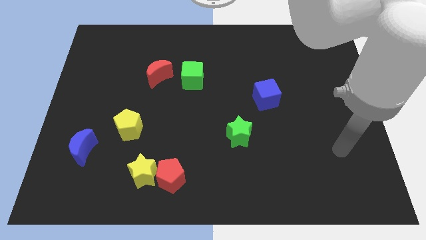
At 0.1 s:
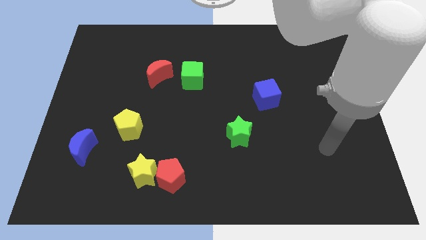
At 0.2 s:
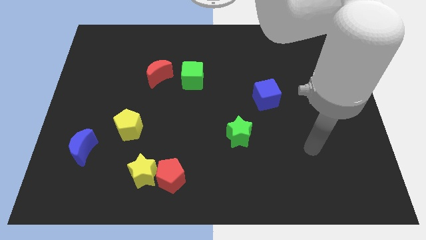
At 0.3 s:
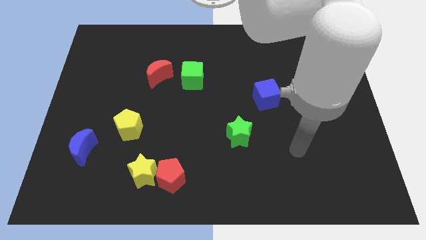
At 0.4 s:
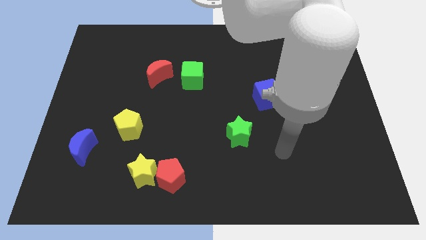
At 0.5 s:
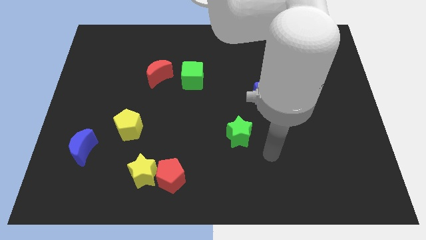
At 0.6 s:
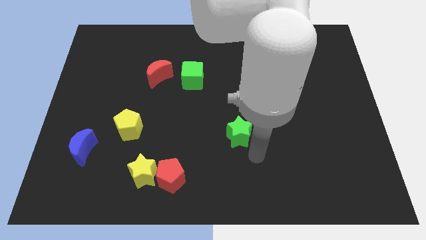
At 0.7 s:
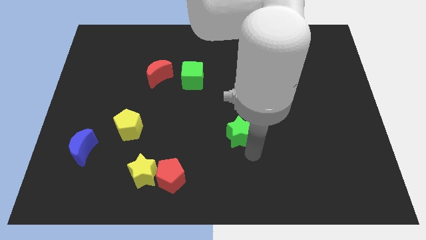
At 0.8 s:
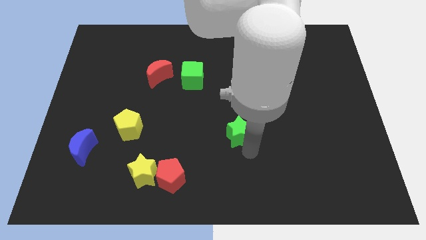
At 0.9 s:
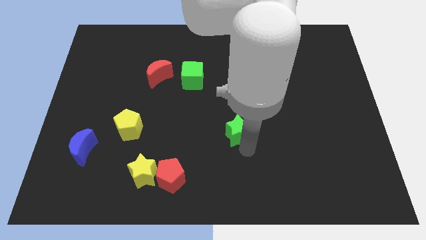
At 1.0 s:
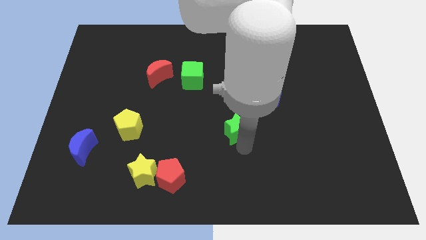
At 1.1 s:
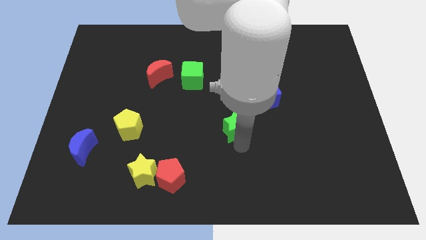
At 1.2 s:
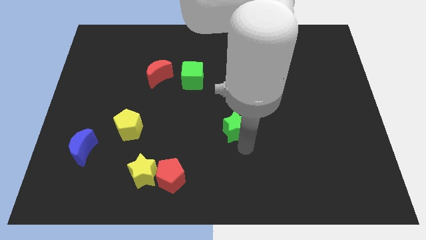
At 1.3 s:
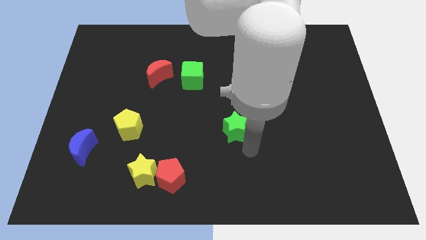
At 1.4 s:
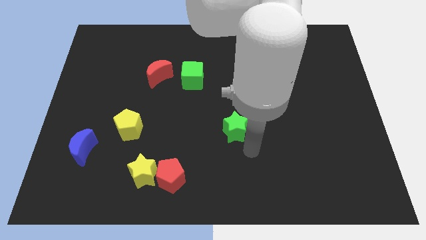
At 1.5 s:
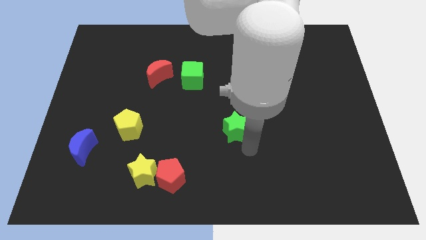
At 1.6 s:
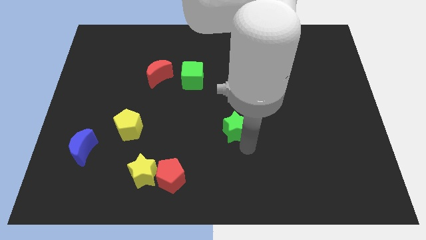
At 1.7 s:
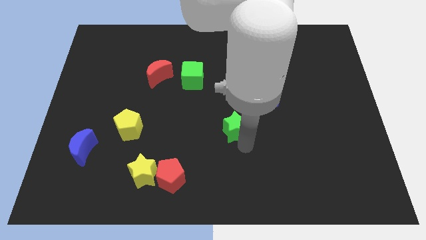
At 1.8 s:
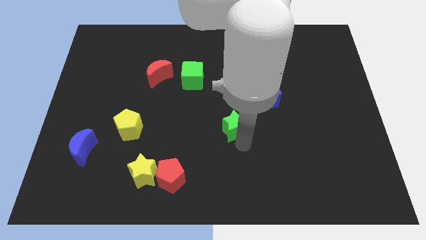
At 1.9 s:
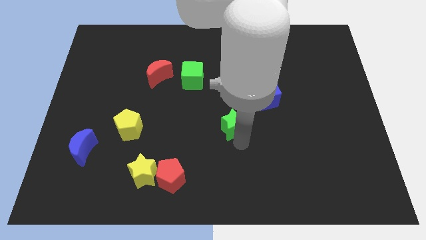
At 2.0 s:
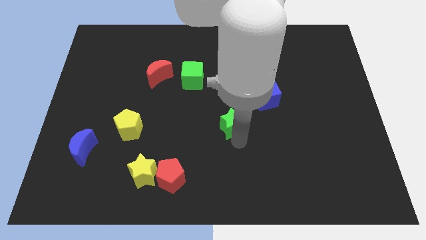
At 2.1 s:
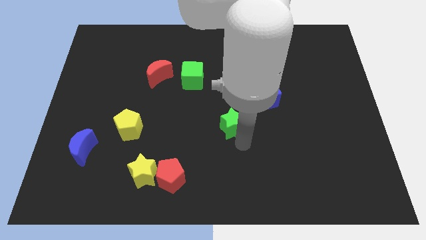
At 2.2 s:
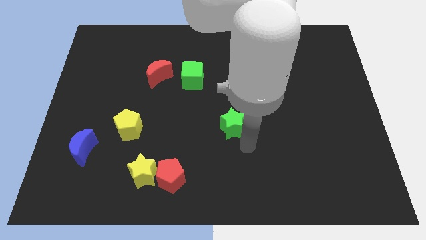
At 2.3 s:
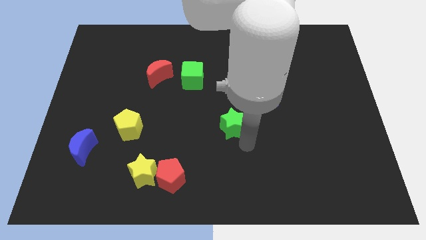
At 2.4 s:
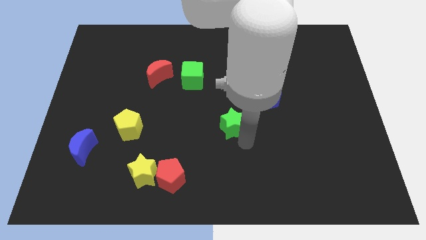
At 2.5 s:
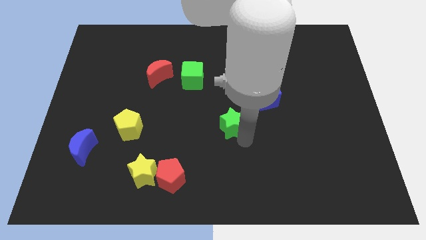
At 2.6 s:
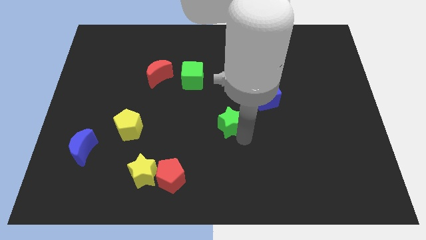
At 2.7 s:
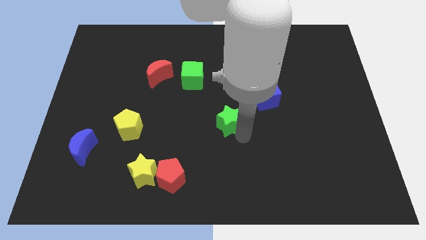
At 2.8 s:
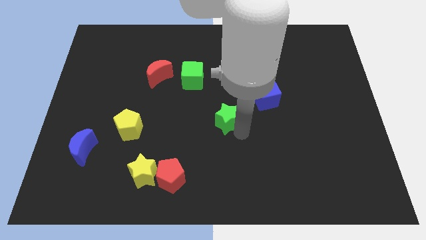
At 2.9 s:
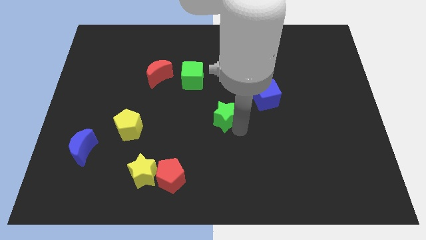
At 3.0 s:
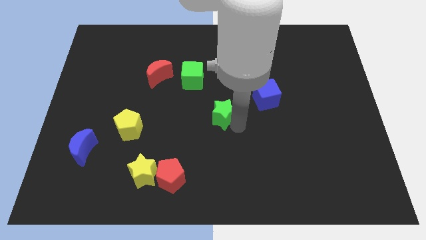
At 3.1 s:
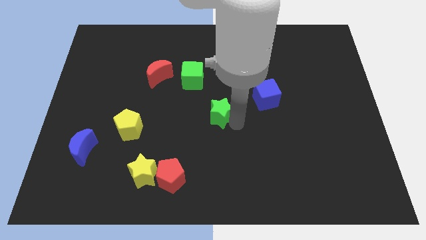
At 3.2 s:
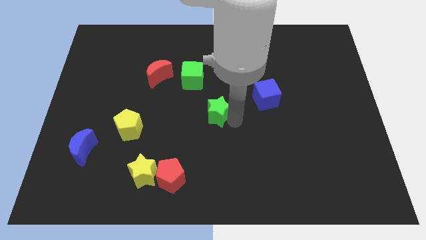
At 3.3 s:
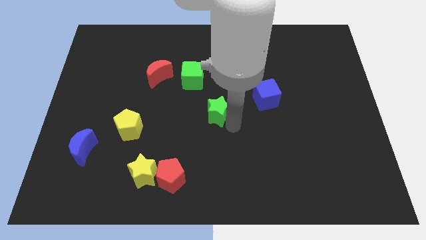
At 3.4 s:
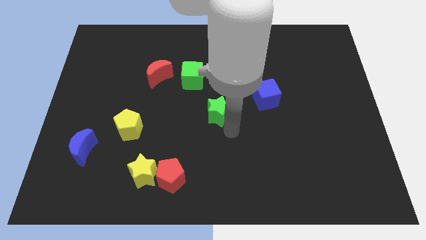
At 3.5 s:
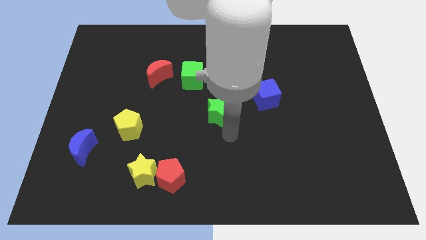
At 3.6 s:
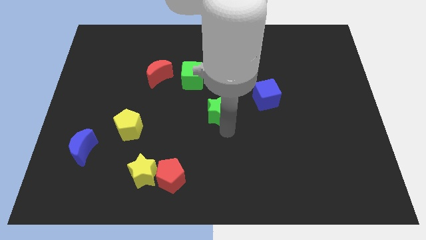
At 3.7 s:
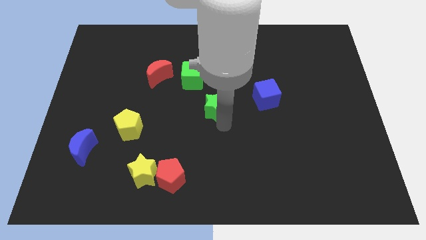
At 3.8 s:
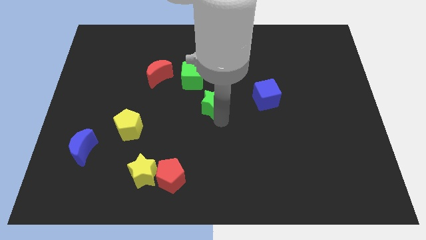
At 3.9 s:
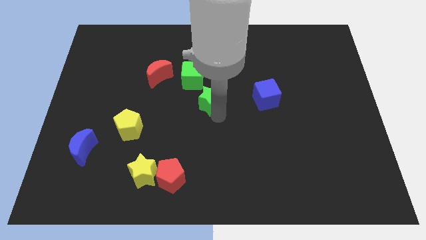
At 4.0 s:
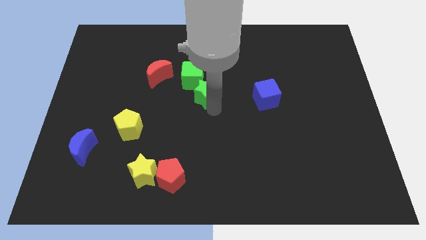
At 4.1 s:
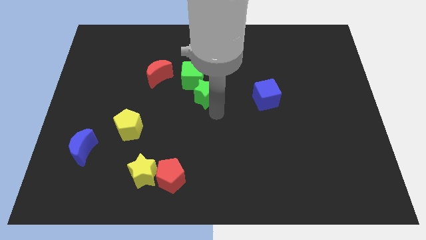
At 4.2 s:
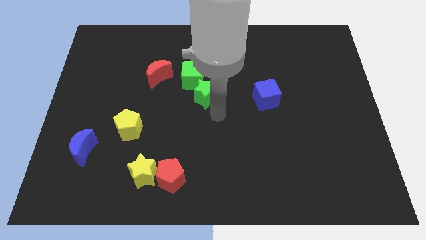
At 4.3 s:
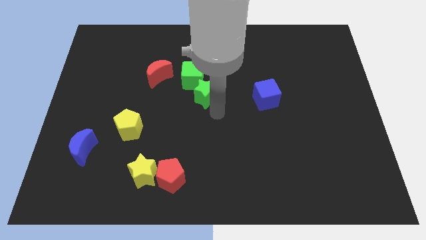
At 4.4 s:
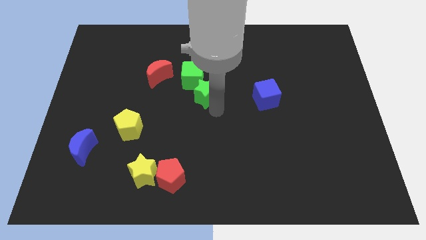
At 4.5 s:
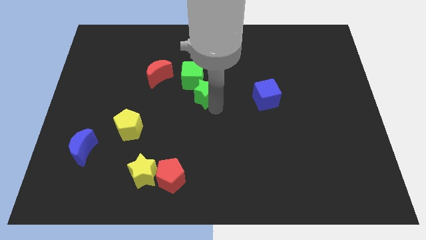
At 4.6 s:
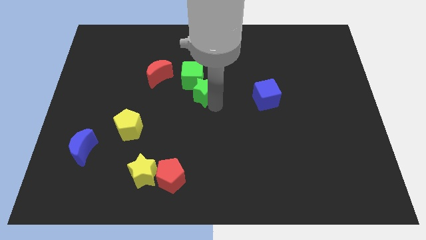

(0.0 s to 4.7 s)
slide the green star towards the green cube

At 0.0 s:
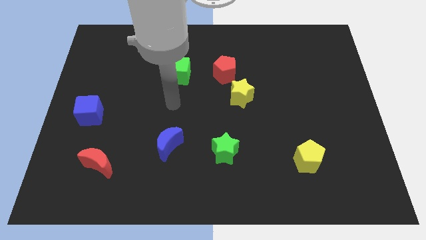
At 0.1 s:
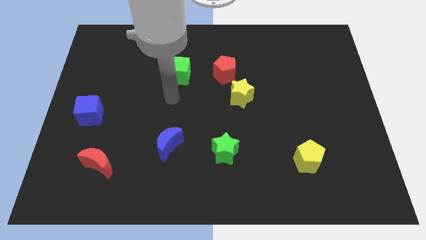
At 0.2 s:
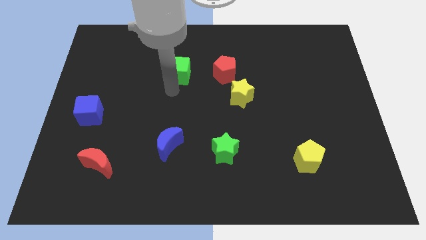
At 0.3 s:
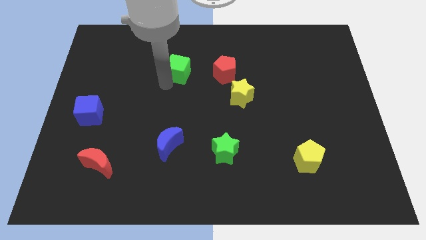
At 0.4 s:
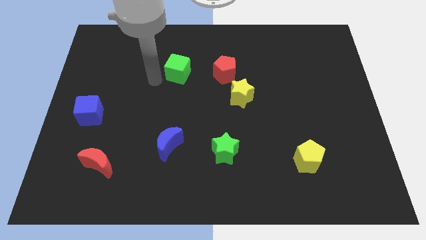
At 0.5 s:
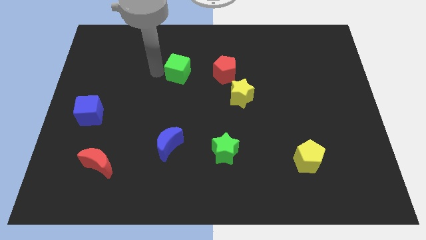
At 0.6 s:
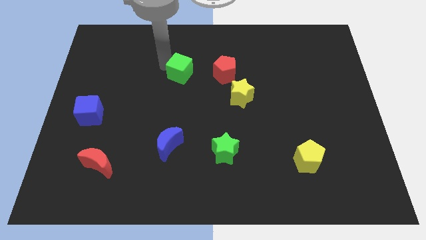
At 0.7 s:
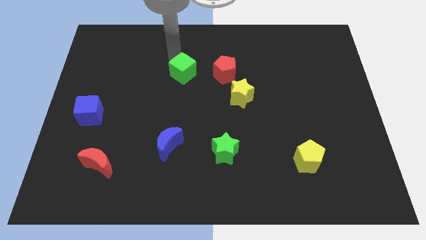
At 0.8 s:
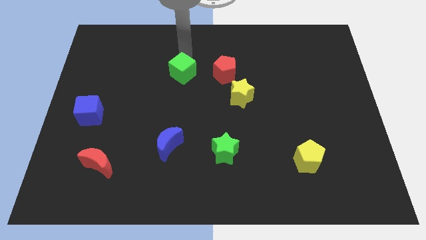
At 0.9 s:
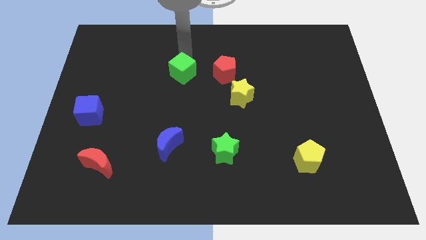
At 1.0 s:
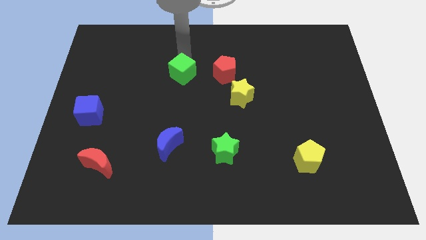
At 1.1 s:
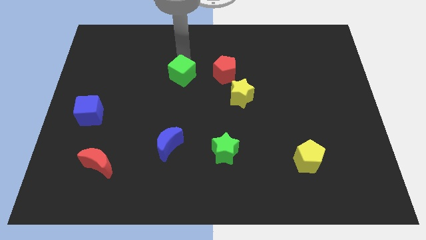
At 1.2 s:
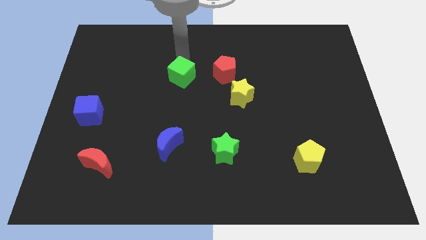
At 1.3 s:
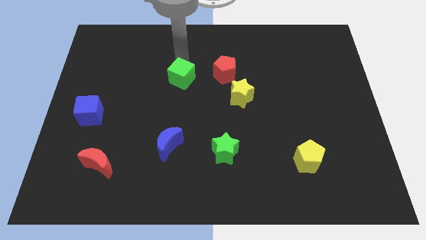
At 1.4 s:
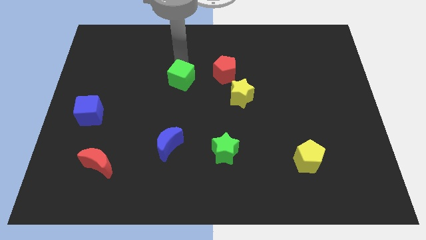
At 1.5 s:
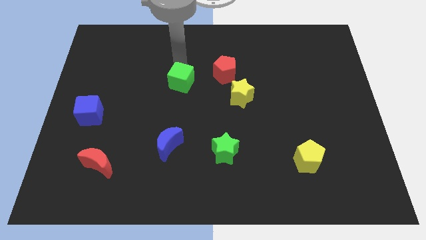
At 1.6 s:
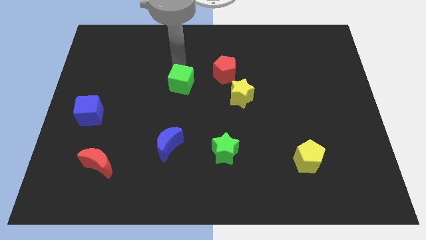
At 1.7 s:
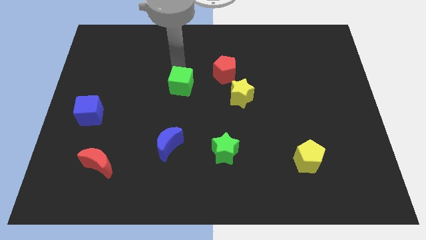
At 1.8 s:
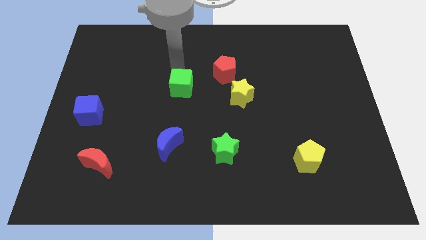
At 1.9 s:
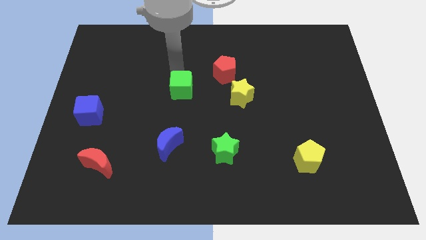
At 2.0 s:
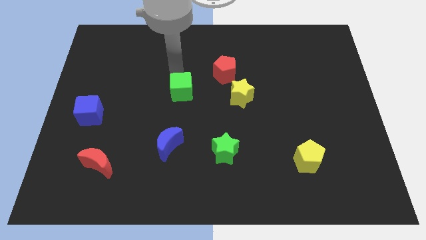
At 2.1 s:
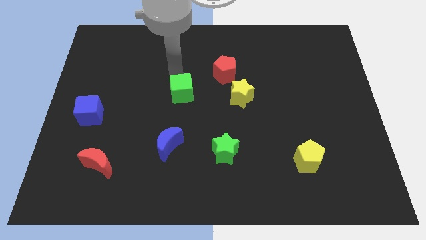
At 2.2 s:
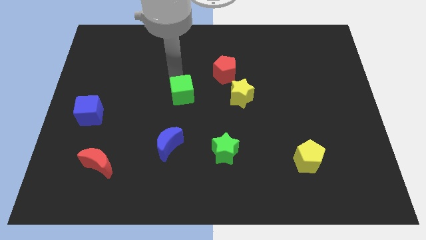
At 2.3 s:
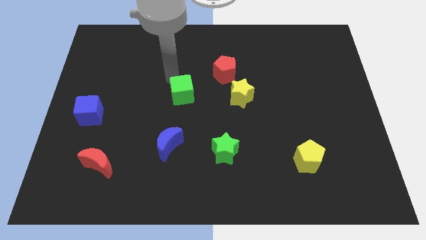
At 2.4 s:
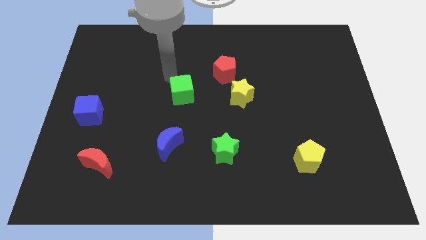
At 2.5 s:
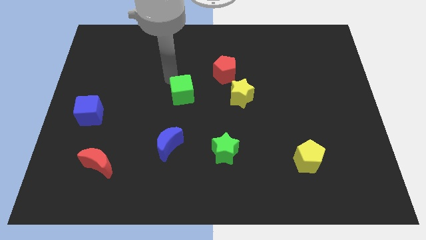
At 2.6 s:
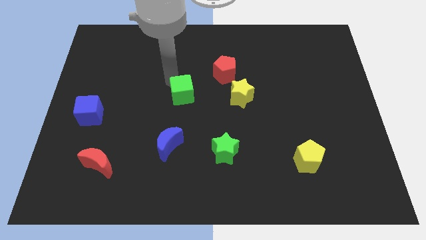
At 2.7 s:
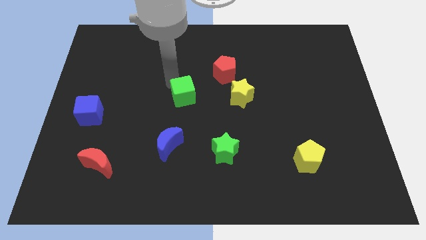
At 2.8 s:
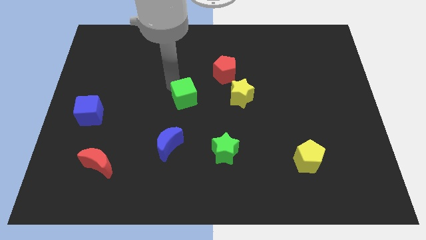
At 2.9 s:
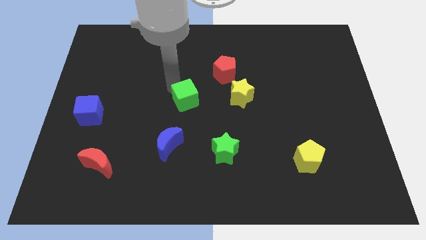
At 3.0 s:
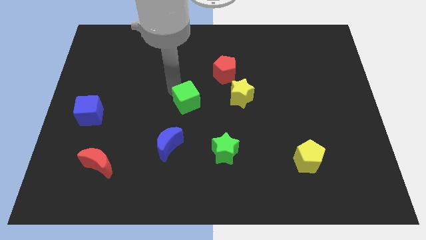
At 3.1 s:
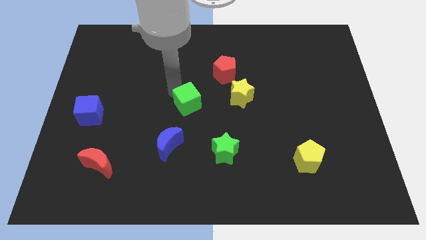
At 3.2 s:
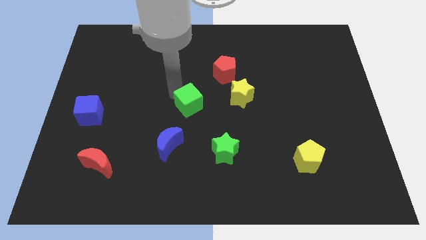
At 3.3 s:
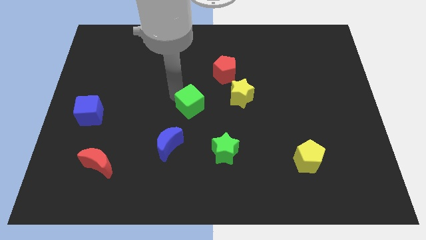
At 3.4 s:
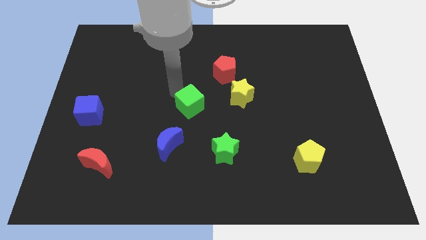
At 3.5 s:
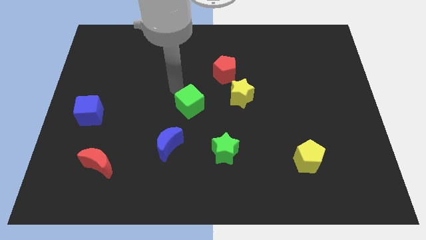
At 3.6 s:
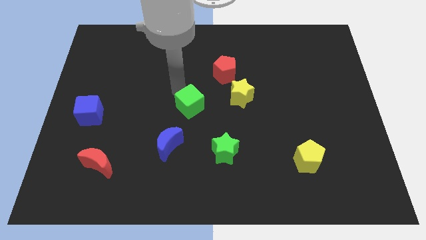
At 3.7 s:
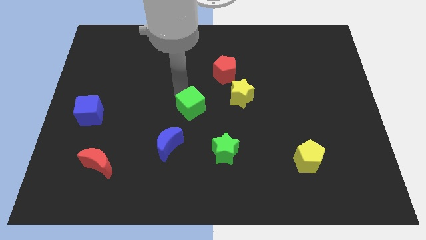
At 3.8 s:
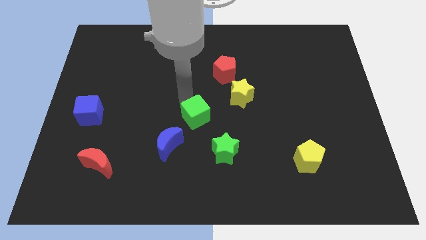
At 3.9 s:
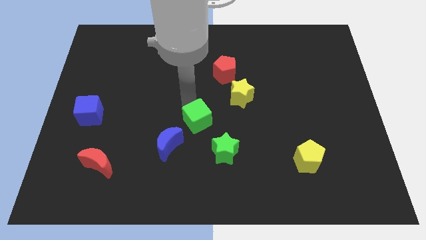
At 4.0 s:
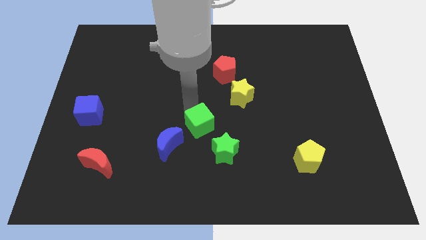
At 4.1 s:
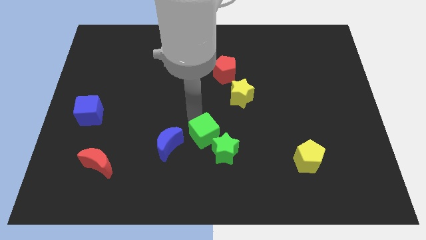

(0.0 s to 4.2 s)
slide the green cube to the green star
